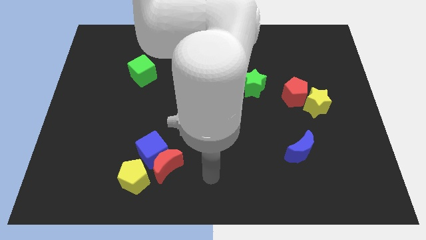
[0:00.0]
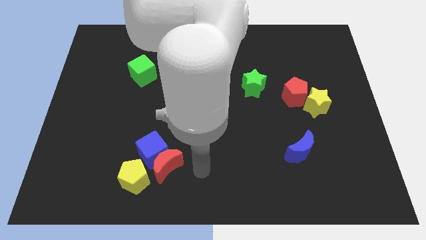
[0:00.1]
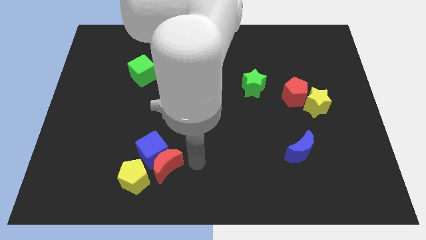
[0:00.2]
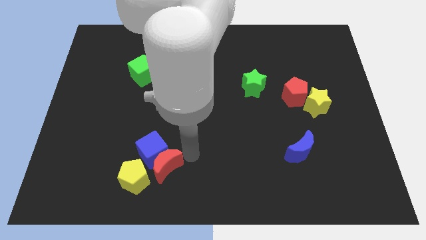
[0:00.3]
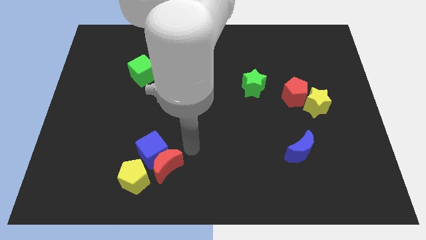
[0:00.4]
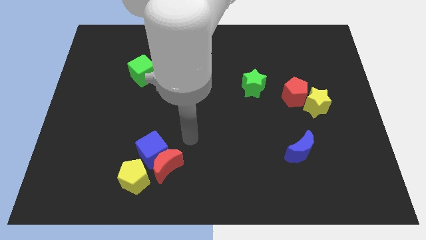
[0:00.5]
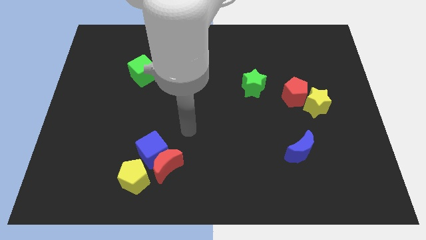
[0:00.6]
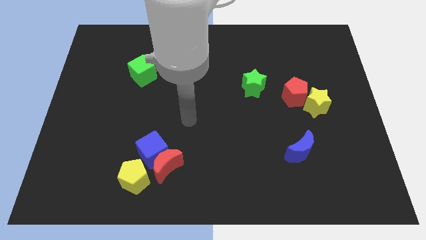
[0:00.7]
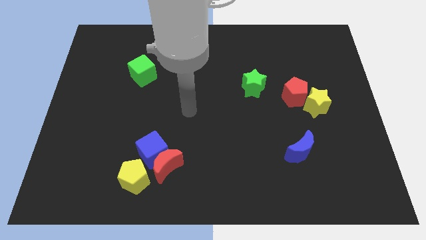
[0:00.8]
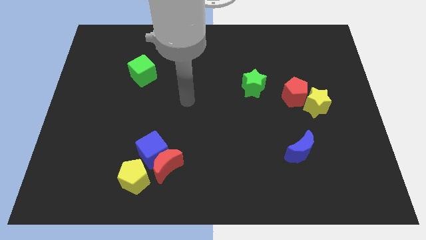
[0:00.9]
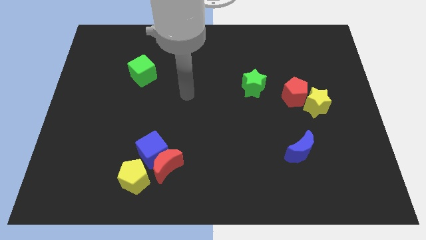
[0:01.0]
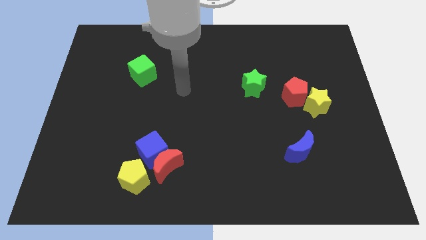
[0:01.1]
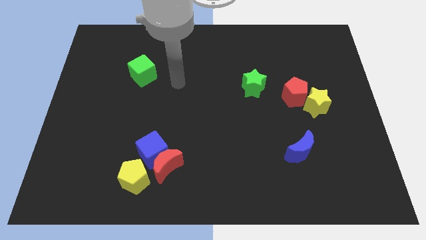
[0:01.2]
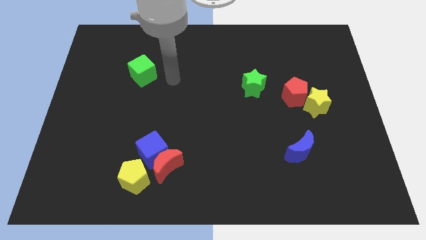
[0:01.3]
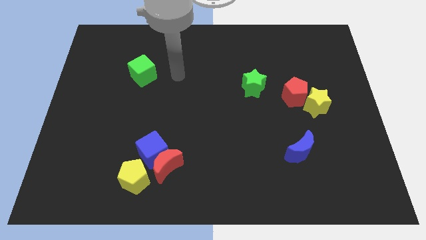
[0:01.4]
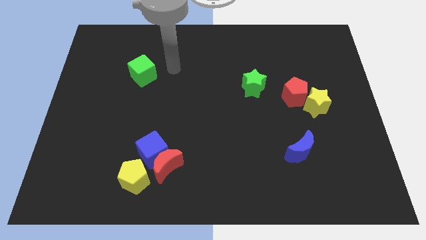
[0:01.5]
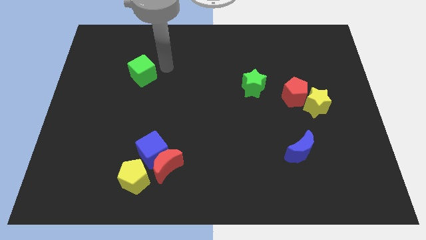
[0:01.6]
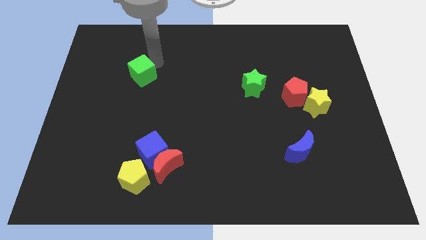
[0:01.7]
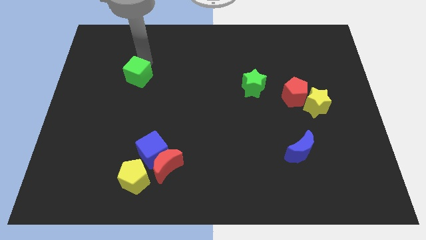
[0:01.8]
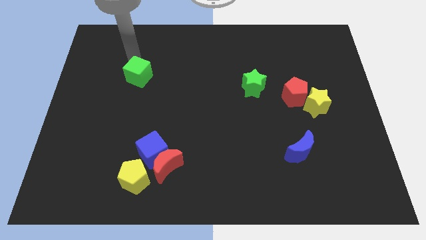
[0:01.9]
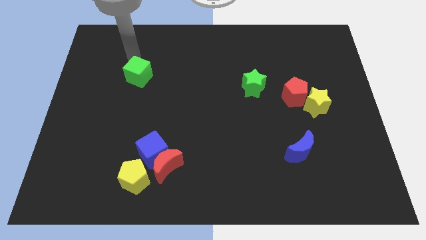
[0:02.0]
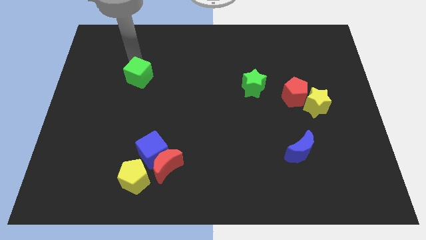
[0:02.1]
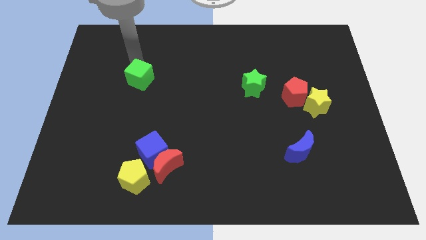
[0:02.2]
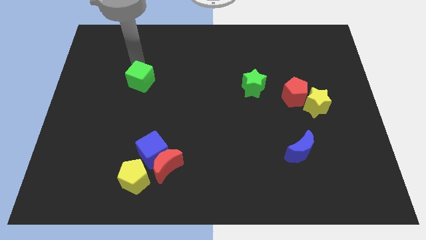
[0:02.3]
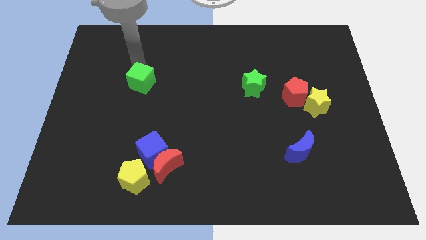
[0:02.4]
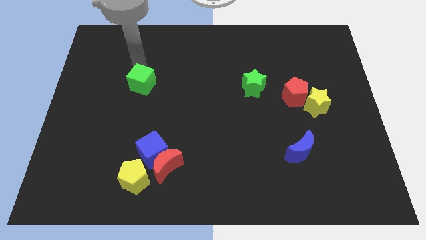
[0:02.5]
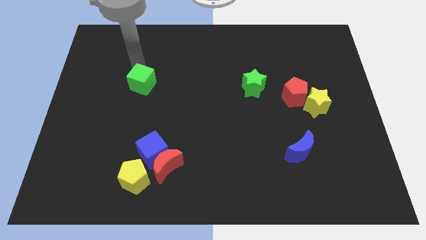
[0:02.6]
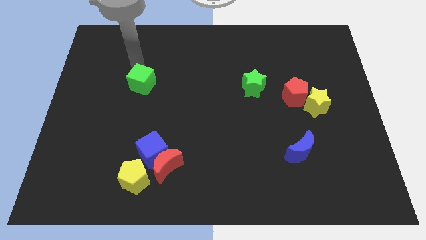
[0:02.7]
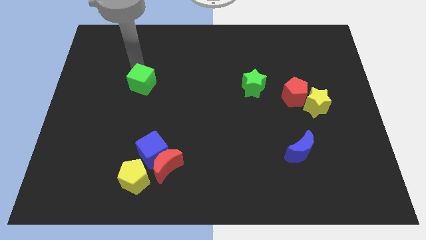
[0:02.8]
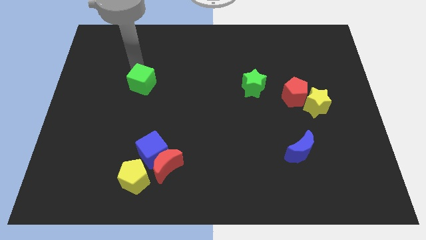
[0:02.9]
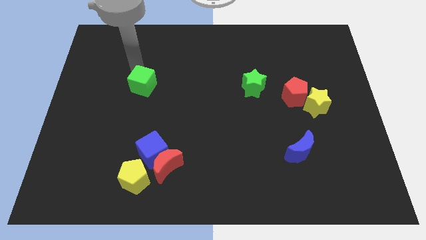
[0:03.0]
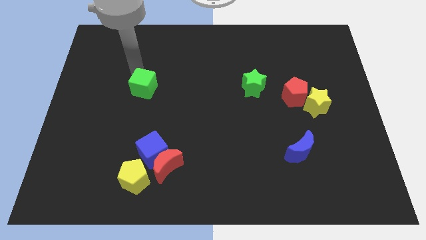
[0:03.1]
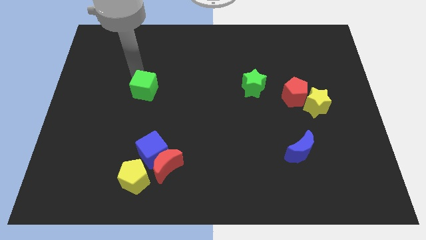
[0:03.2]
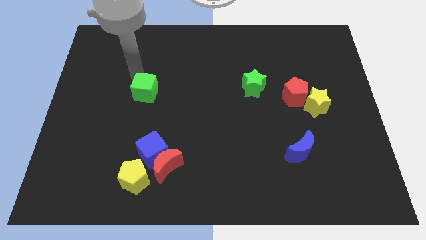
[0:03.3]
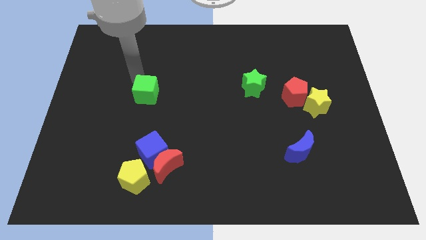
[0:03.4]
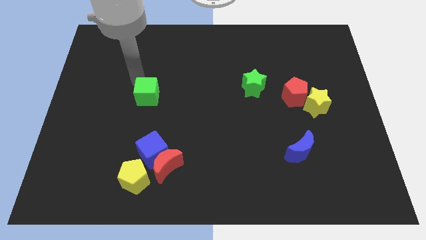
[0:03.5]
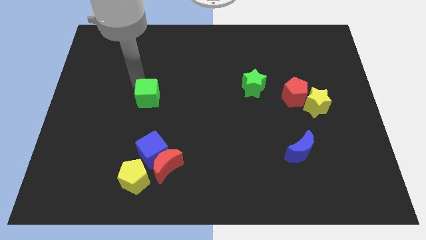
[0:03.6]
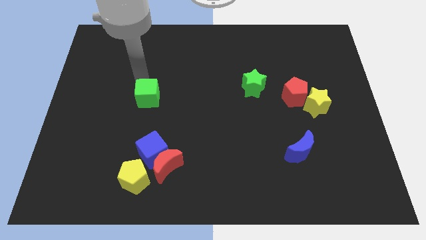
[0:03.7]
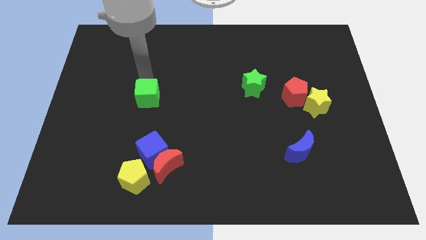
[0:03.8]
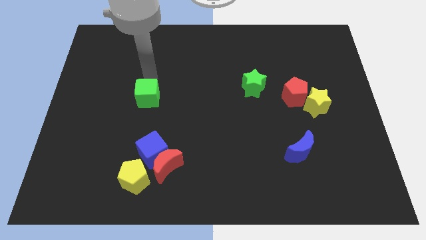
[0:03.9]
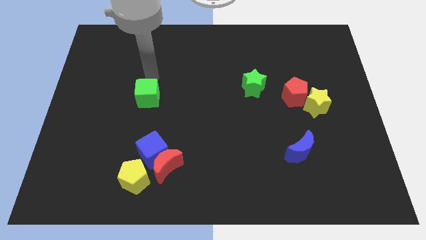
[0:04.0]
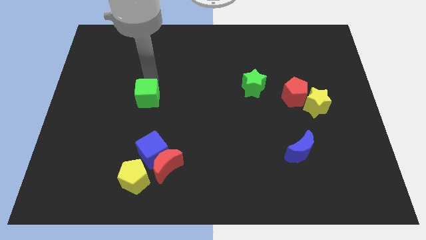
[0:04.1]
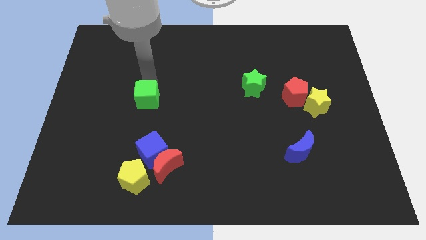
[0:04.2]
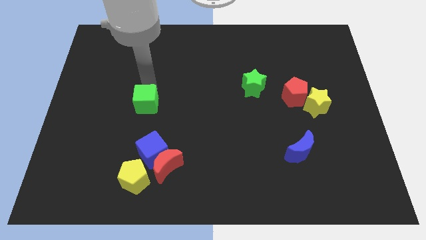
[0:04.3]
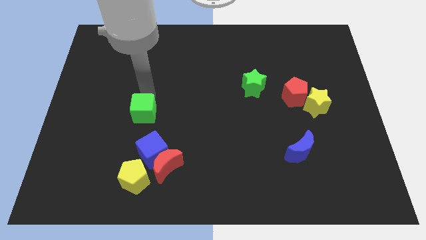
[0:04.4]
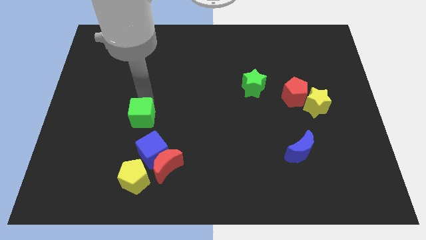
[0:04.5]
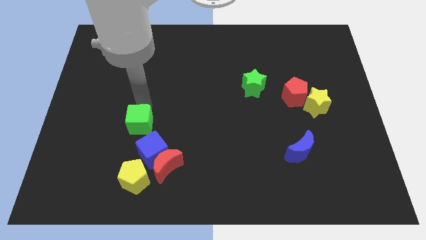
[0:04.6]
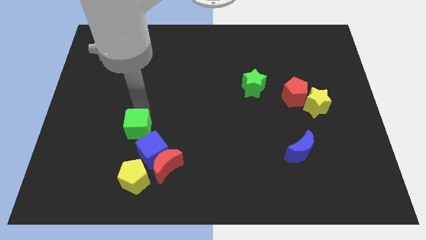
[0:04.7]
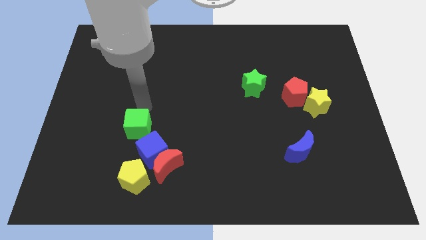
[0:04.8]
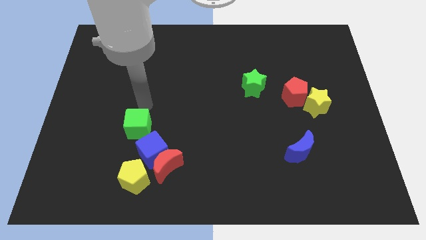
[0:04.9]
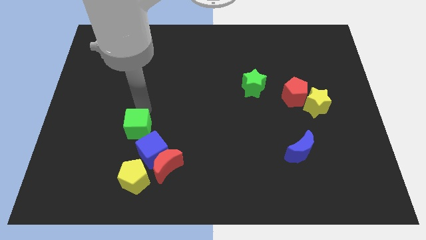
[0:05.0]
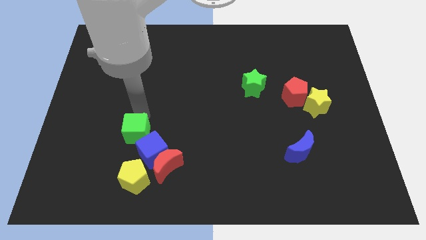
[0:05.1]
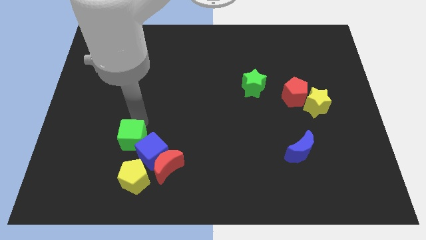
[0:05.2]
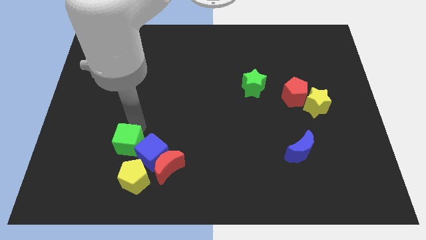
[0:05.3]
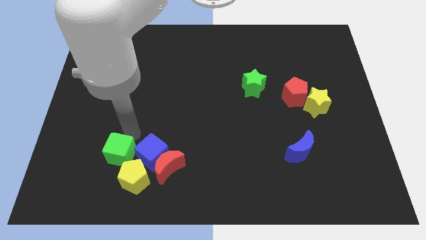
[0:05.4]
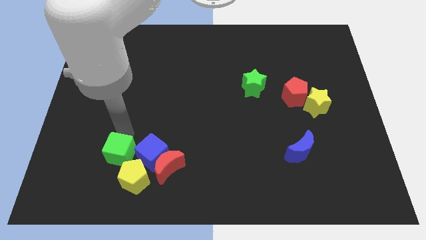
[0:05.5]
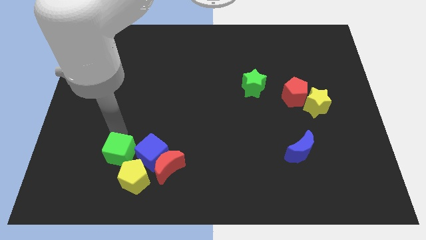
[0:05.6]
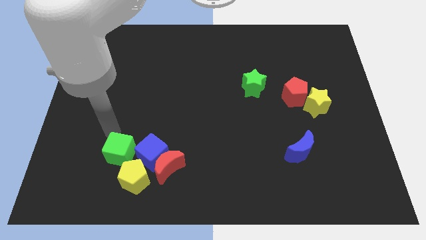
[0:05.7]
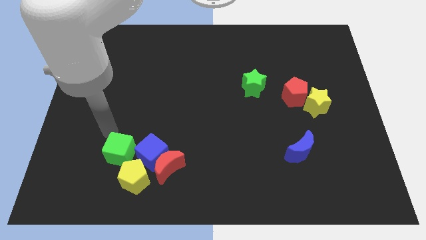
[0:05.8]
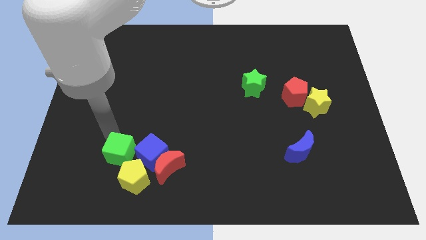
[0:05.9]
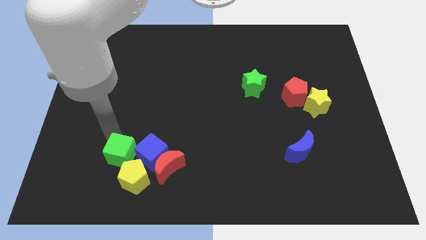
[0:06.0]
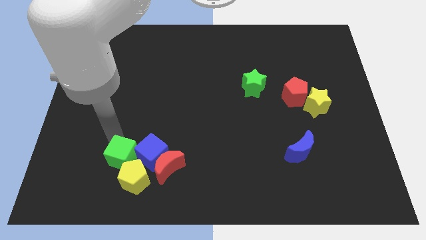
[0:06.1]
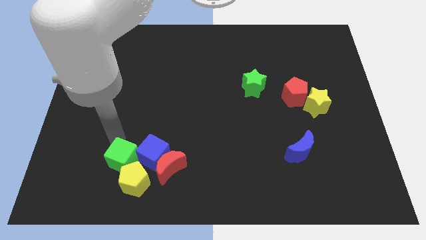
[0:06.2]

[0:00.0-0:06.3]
put the green cube to the yellow pentagon
